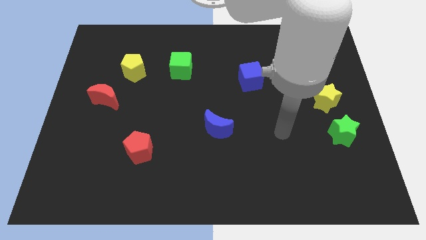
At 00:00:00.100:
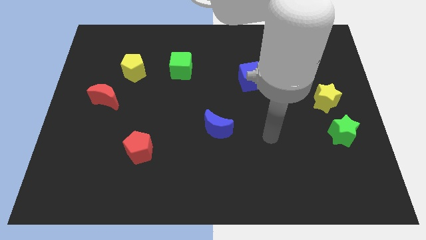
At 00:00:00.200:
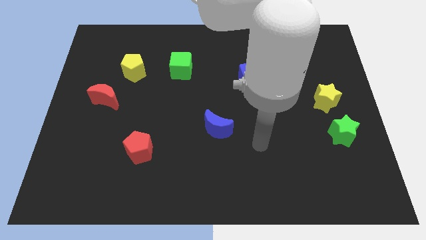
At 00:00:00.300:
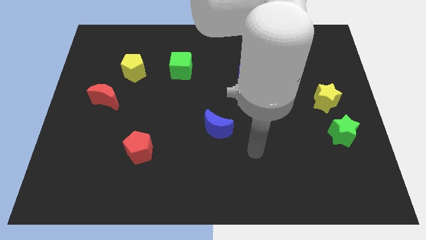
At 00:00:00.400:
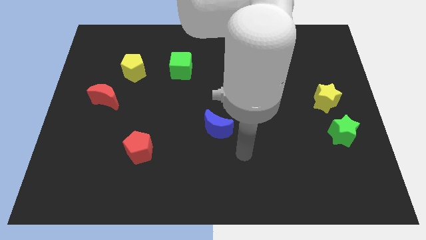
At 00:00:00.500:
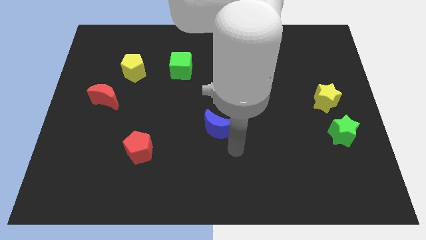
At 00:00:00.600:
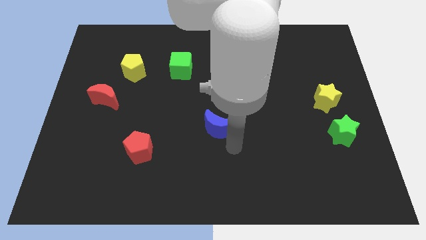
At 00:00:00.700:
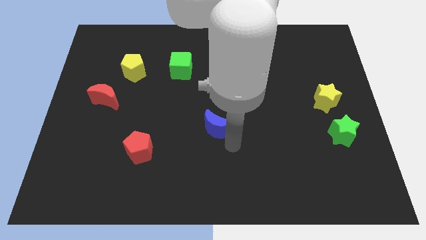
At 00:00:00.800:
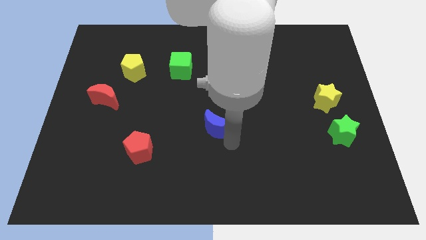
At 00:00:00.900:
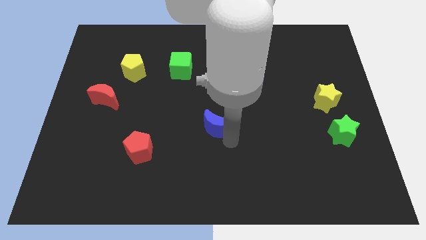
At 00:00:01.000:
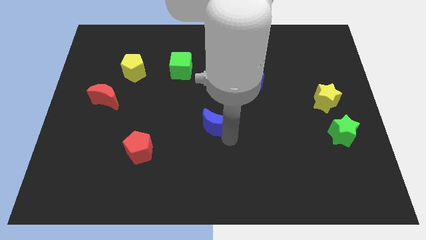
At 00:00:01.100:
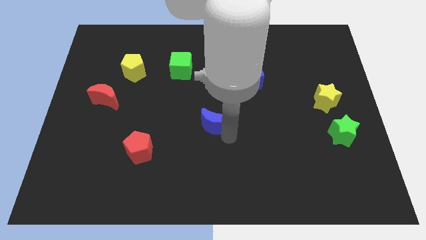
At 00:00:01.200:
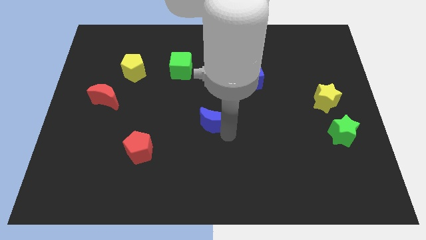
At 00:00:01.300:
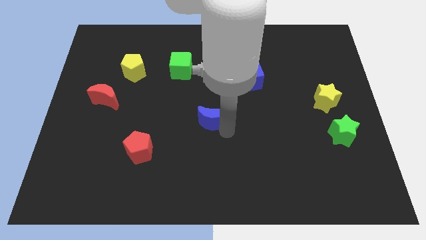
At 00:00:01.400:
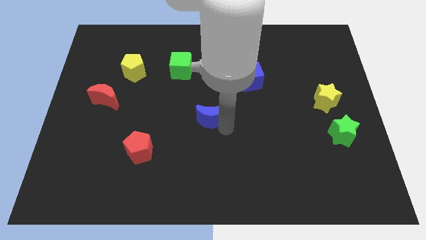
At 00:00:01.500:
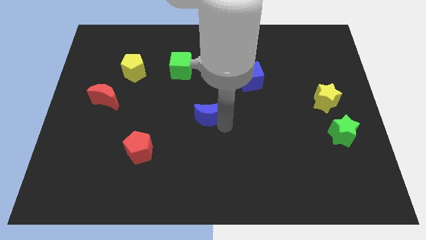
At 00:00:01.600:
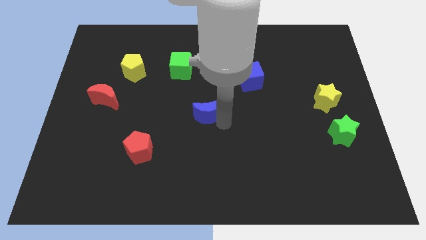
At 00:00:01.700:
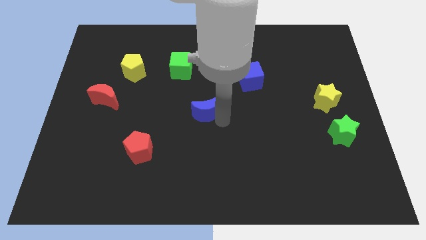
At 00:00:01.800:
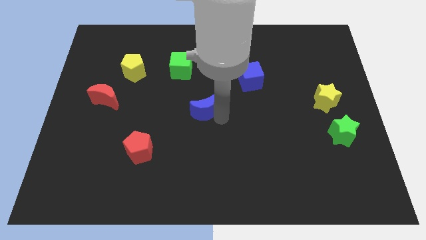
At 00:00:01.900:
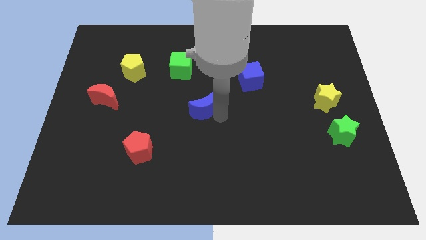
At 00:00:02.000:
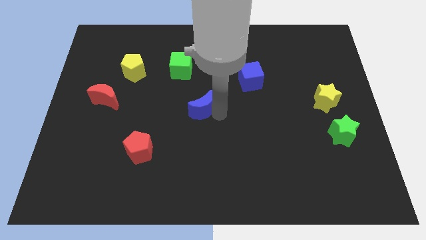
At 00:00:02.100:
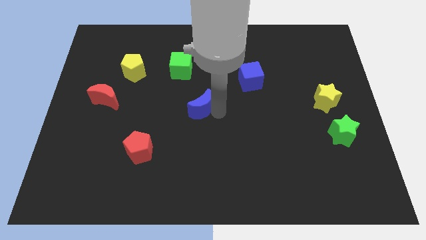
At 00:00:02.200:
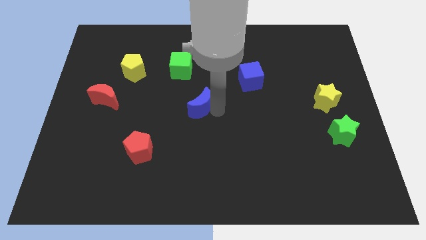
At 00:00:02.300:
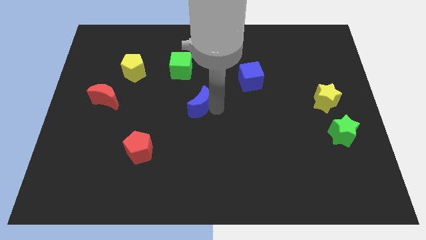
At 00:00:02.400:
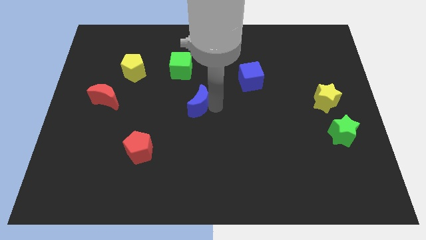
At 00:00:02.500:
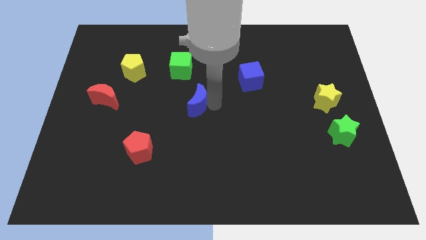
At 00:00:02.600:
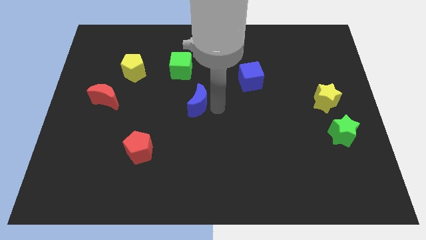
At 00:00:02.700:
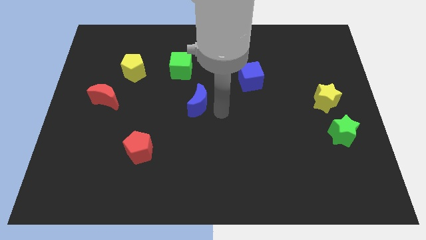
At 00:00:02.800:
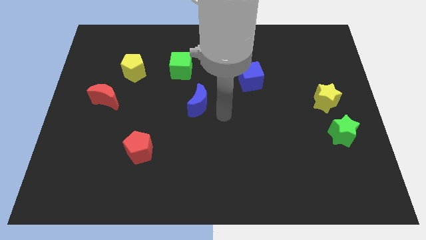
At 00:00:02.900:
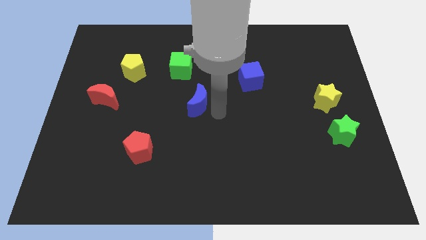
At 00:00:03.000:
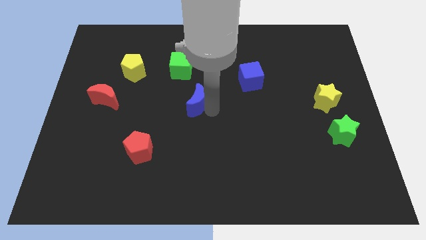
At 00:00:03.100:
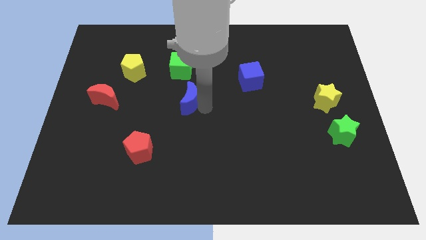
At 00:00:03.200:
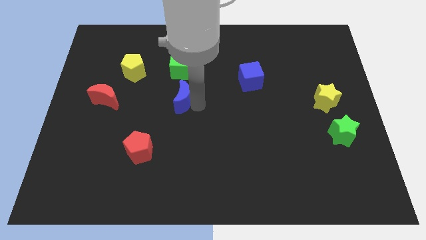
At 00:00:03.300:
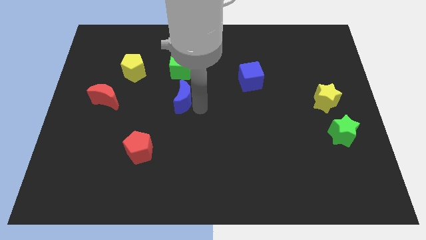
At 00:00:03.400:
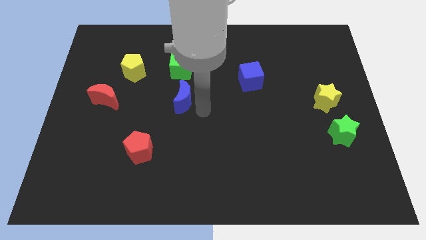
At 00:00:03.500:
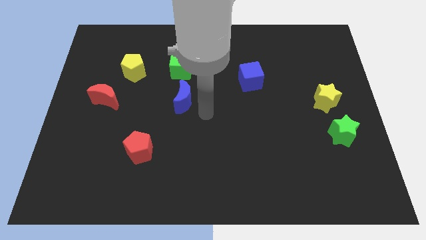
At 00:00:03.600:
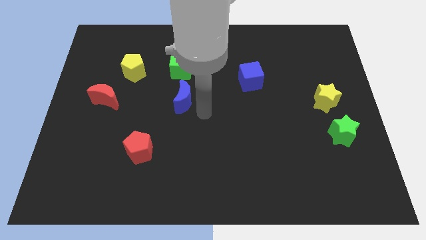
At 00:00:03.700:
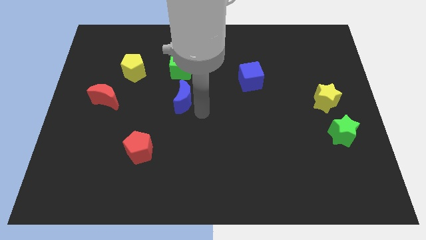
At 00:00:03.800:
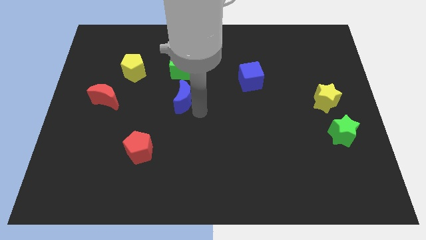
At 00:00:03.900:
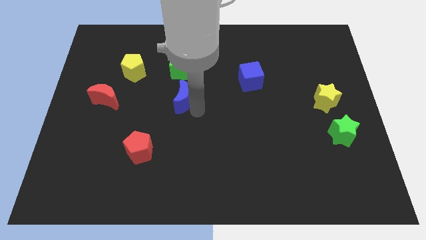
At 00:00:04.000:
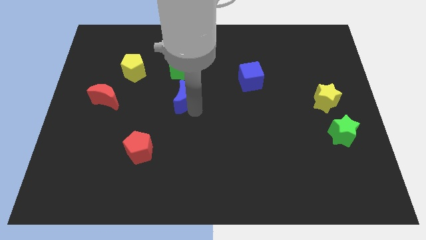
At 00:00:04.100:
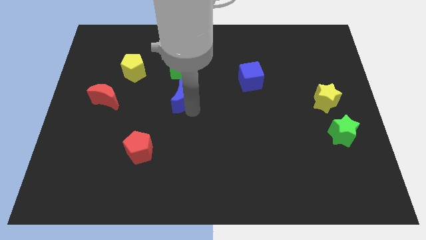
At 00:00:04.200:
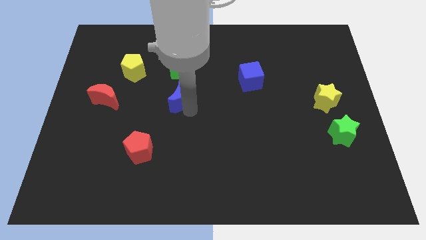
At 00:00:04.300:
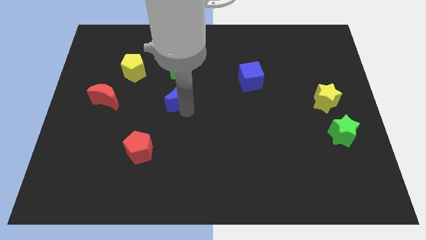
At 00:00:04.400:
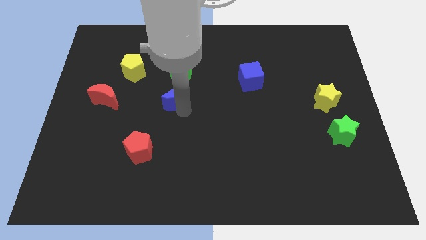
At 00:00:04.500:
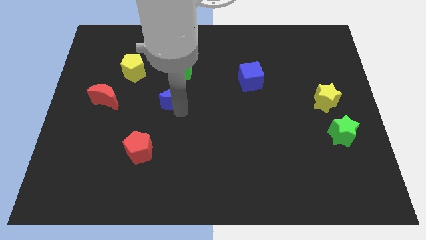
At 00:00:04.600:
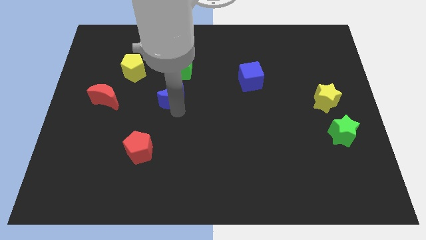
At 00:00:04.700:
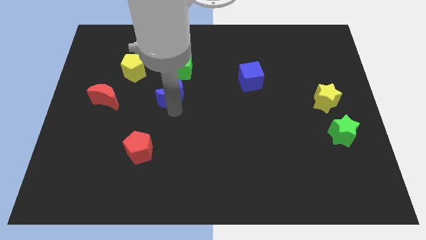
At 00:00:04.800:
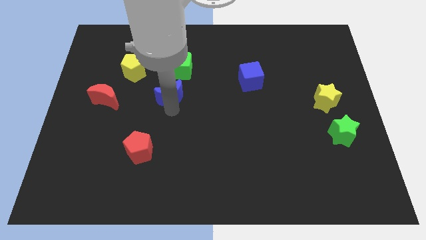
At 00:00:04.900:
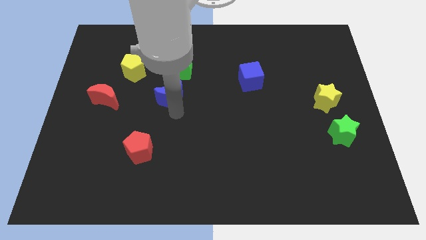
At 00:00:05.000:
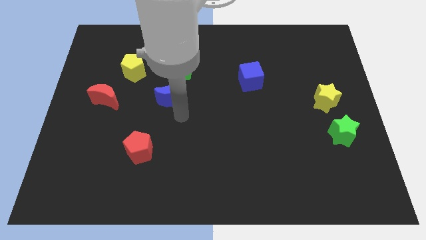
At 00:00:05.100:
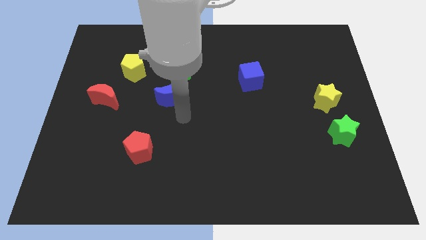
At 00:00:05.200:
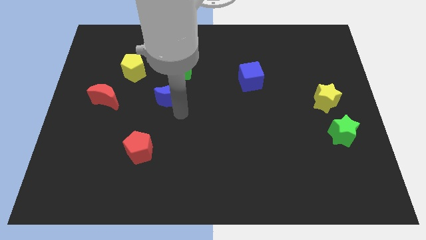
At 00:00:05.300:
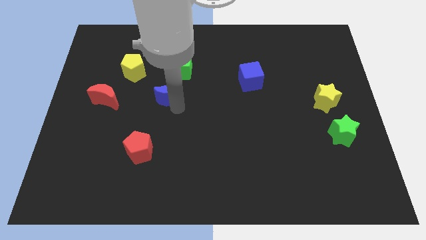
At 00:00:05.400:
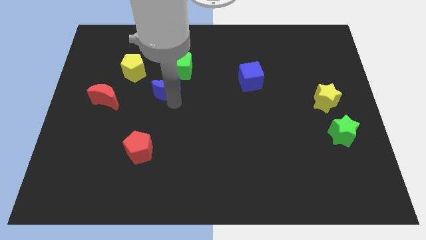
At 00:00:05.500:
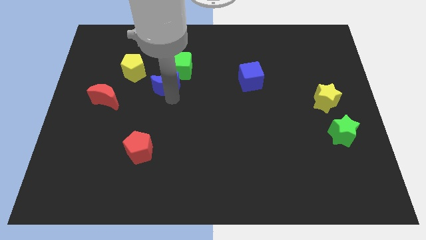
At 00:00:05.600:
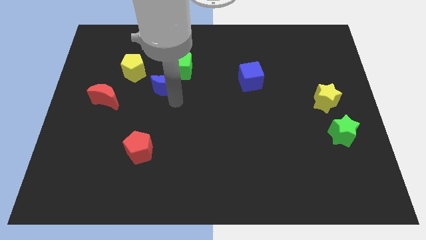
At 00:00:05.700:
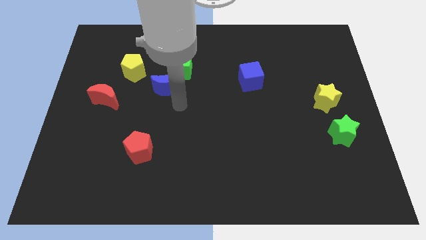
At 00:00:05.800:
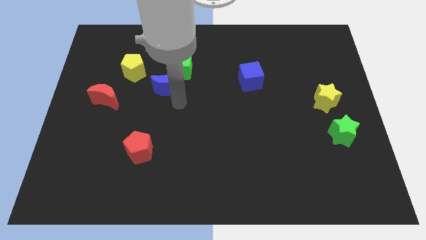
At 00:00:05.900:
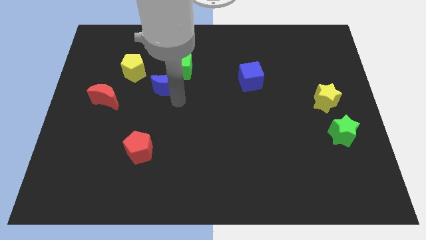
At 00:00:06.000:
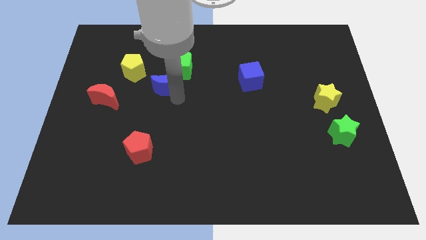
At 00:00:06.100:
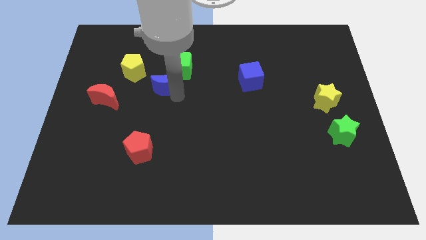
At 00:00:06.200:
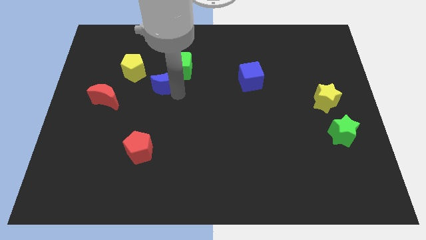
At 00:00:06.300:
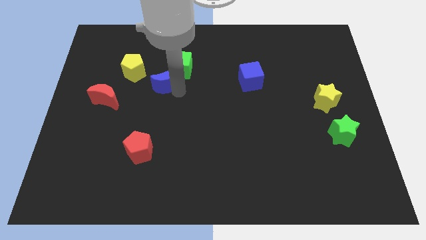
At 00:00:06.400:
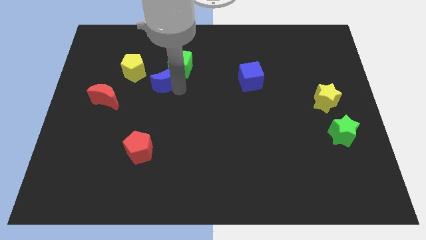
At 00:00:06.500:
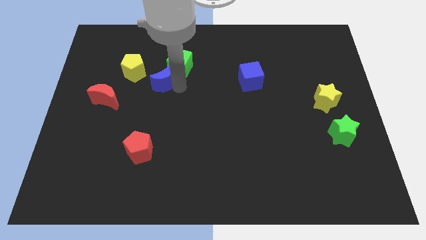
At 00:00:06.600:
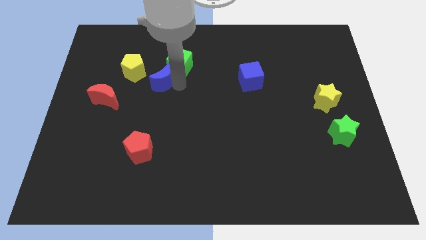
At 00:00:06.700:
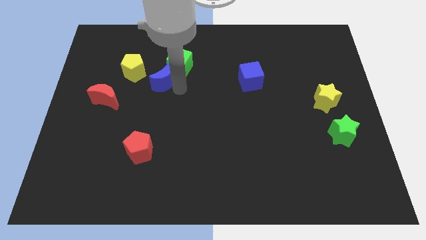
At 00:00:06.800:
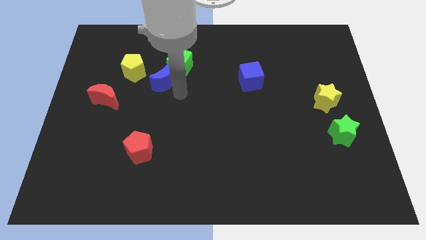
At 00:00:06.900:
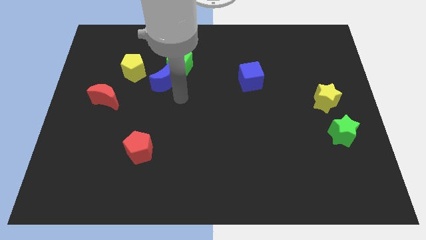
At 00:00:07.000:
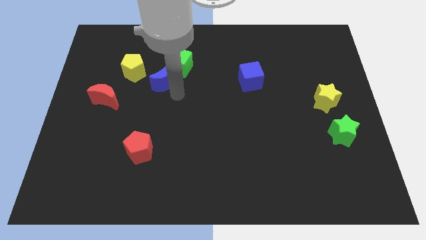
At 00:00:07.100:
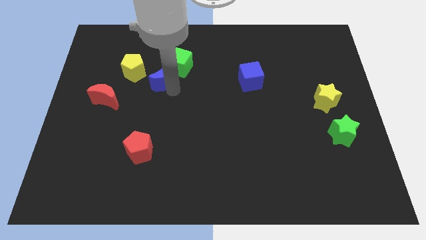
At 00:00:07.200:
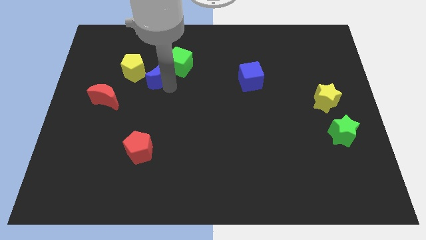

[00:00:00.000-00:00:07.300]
move the blue moon up and to the left

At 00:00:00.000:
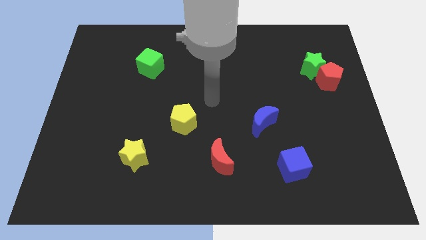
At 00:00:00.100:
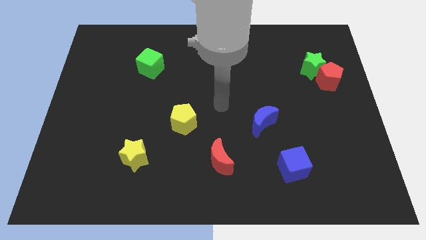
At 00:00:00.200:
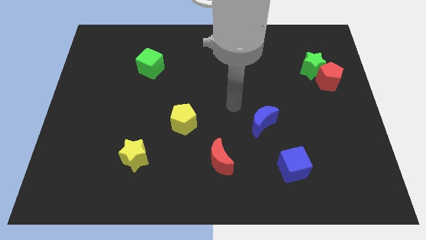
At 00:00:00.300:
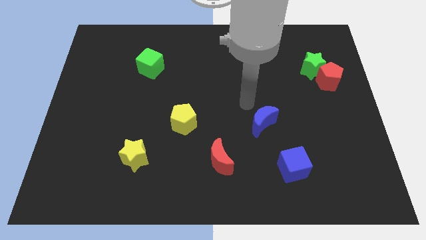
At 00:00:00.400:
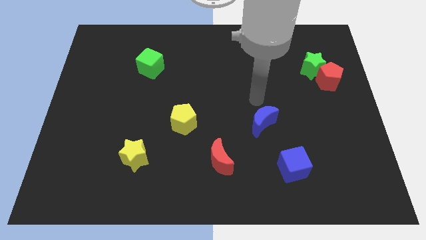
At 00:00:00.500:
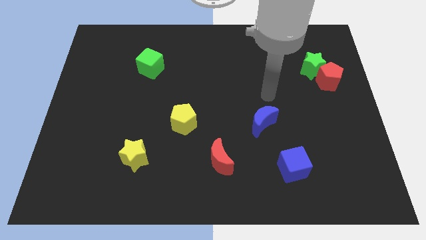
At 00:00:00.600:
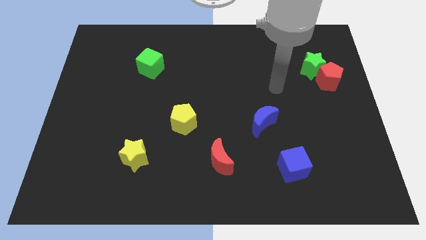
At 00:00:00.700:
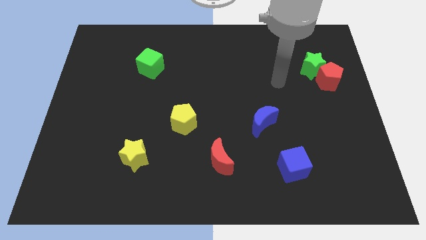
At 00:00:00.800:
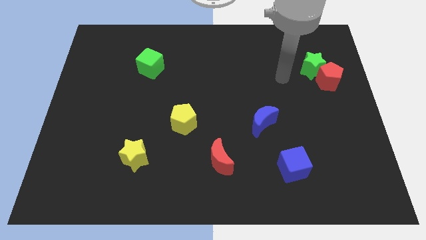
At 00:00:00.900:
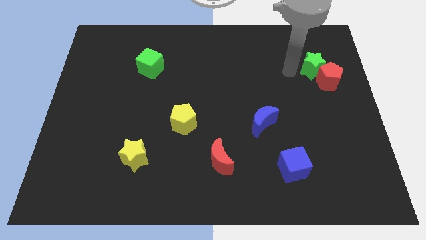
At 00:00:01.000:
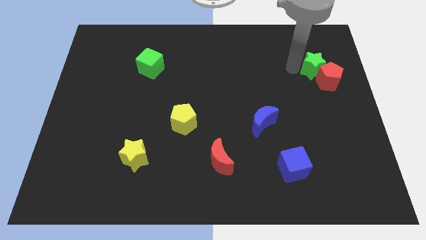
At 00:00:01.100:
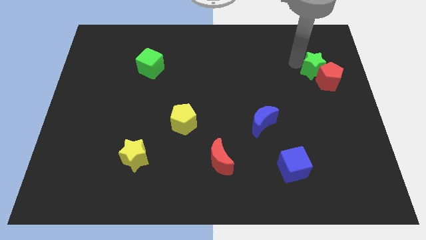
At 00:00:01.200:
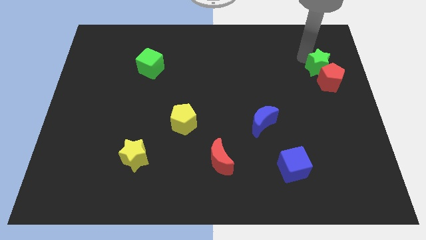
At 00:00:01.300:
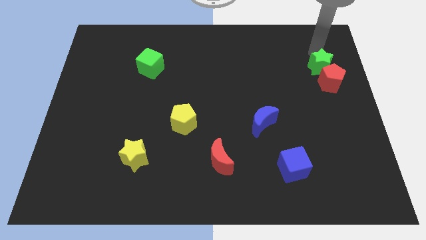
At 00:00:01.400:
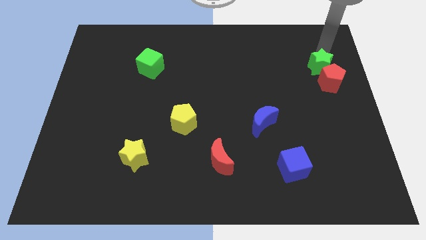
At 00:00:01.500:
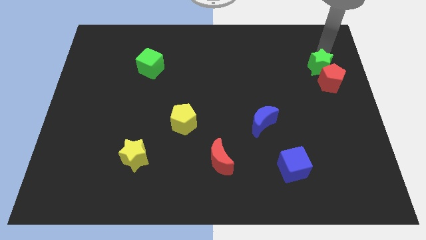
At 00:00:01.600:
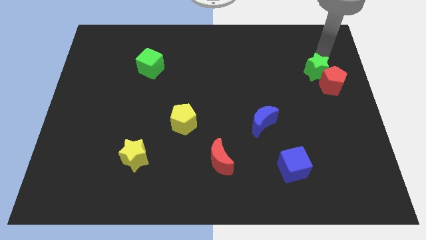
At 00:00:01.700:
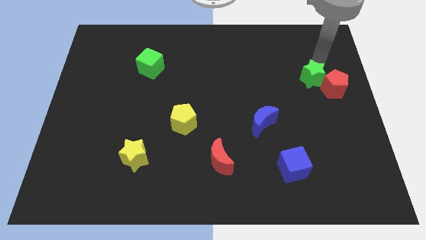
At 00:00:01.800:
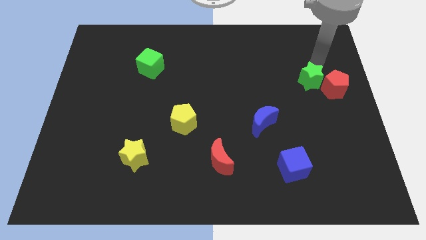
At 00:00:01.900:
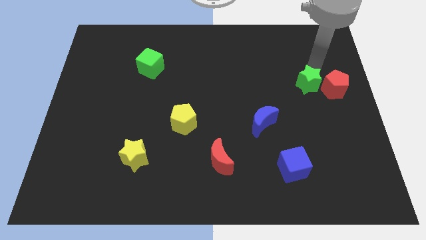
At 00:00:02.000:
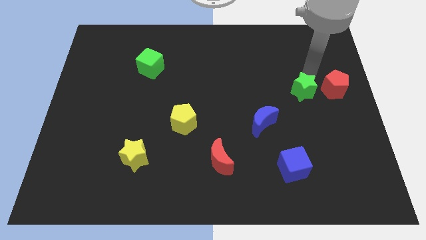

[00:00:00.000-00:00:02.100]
move the green star down somewhat
